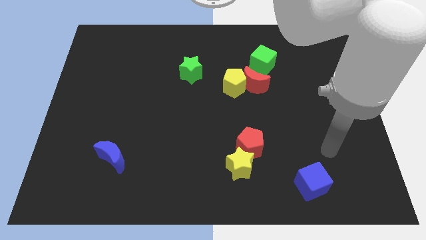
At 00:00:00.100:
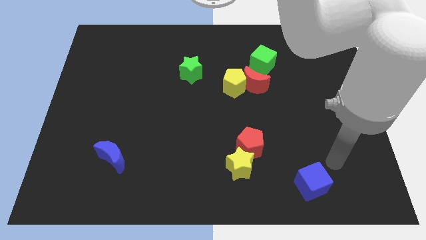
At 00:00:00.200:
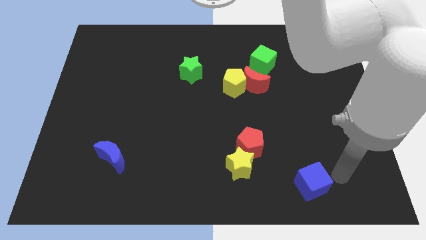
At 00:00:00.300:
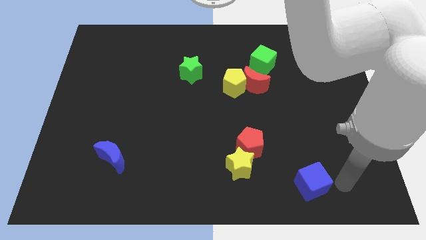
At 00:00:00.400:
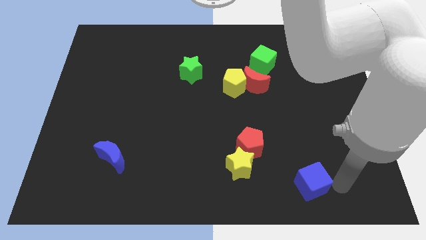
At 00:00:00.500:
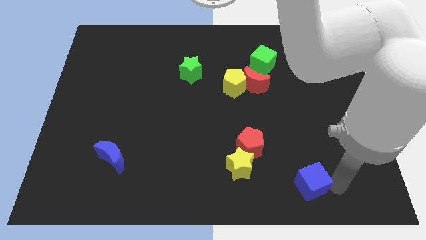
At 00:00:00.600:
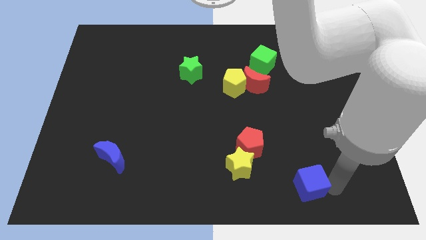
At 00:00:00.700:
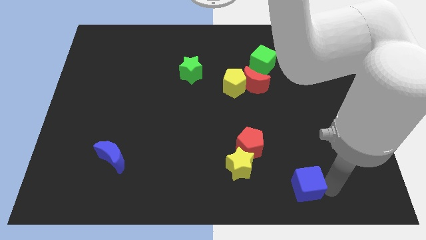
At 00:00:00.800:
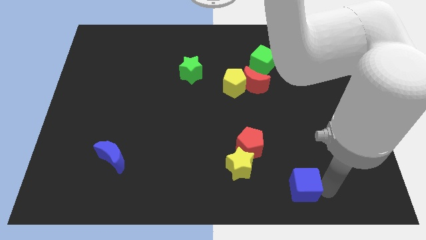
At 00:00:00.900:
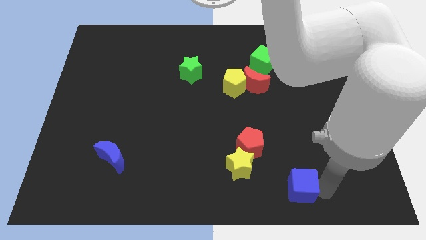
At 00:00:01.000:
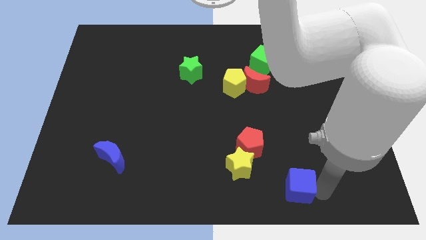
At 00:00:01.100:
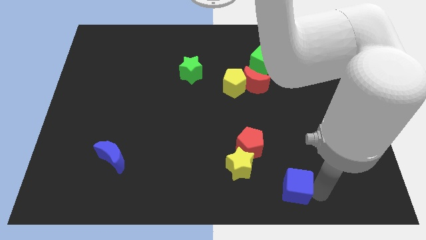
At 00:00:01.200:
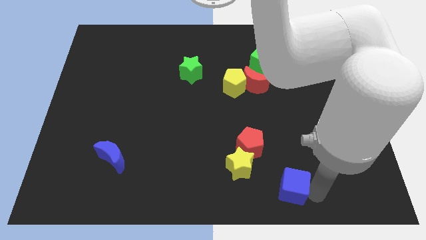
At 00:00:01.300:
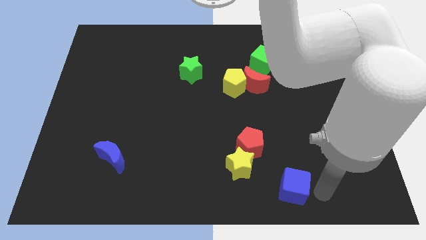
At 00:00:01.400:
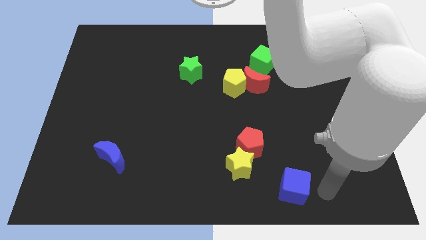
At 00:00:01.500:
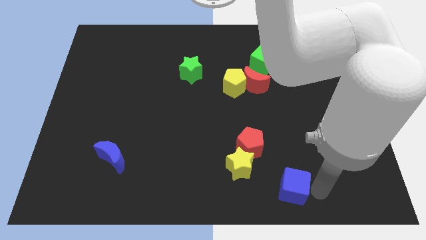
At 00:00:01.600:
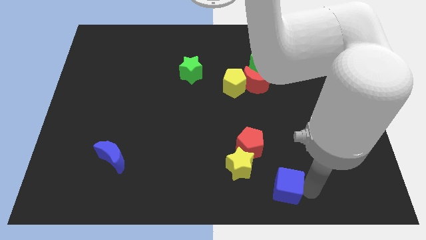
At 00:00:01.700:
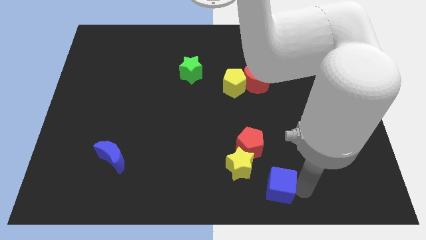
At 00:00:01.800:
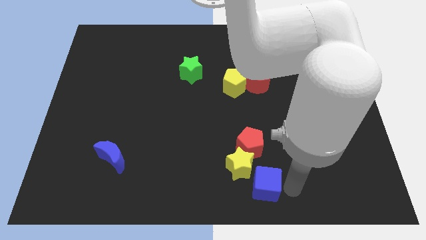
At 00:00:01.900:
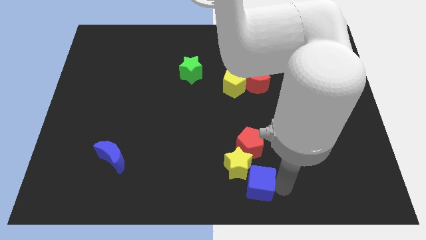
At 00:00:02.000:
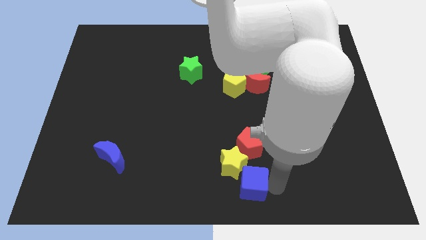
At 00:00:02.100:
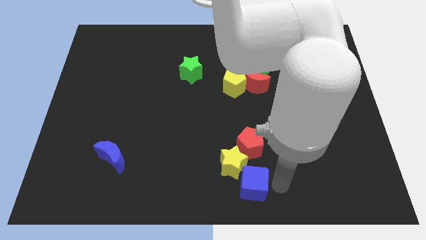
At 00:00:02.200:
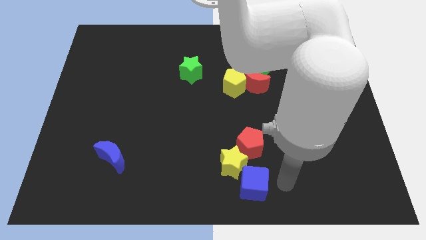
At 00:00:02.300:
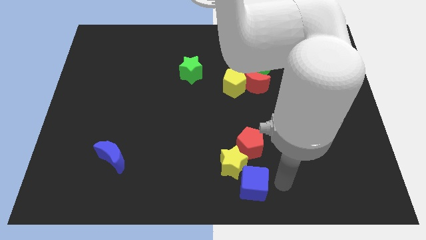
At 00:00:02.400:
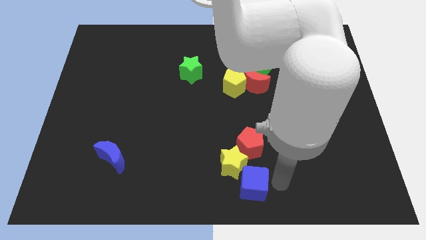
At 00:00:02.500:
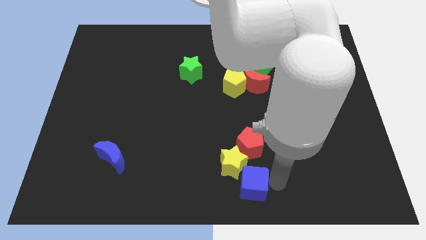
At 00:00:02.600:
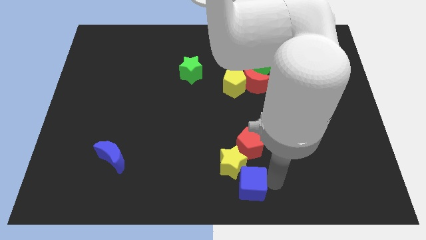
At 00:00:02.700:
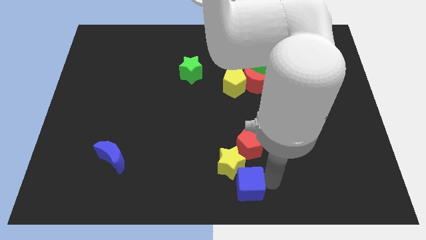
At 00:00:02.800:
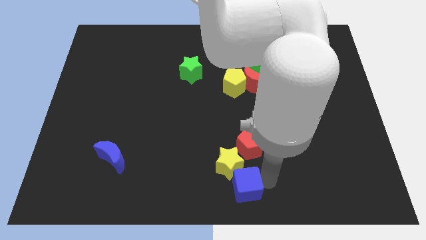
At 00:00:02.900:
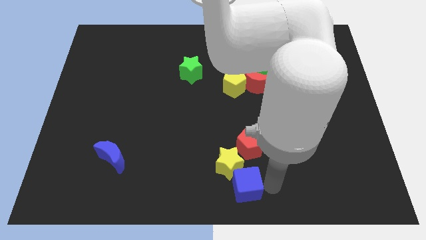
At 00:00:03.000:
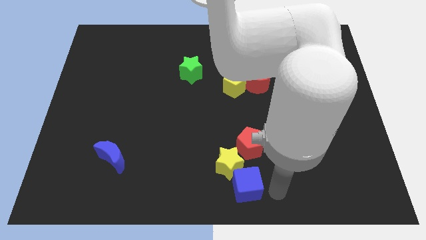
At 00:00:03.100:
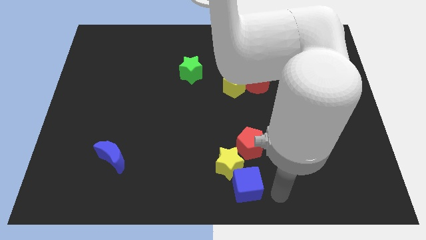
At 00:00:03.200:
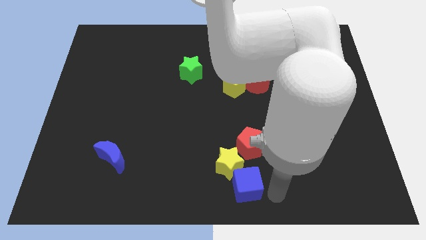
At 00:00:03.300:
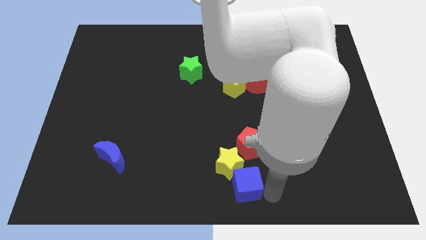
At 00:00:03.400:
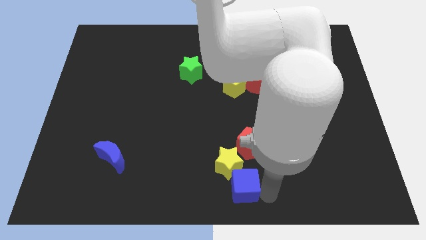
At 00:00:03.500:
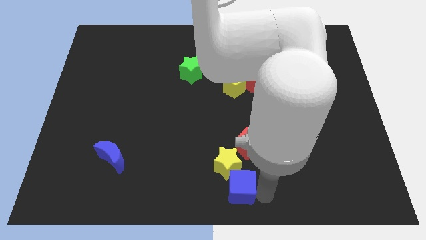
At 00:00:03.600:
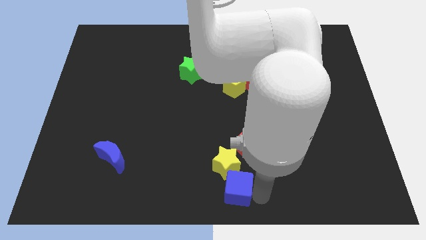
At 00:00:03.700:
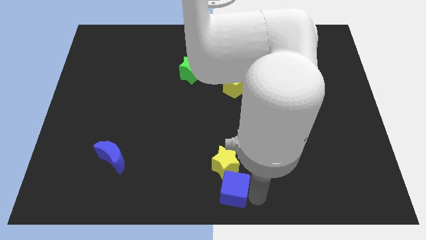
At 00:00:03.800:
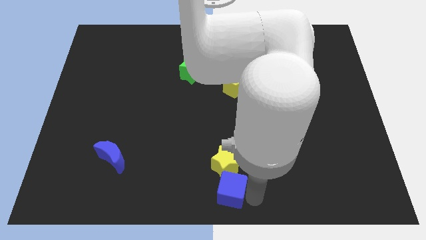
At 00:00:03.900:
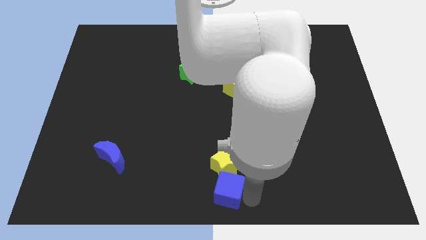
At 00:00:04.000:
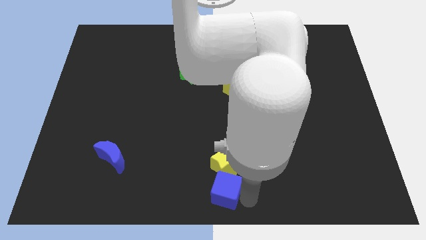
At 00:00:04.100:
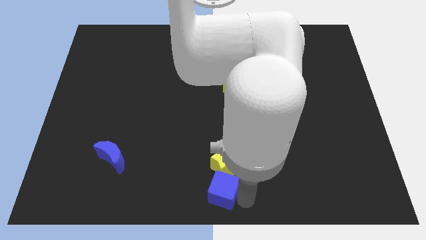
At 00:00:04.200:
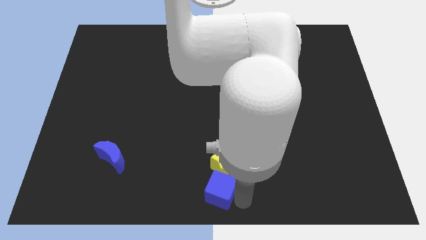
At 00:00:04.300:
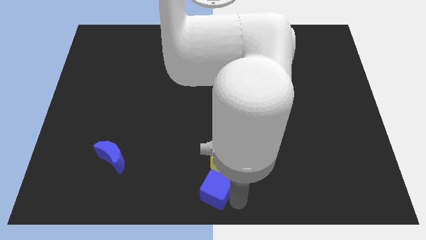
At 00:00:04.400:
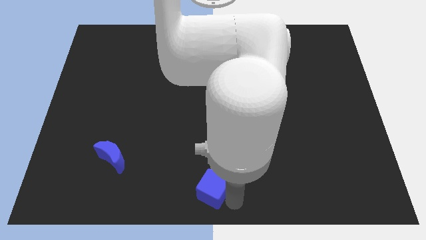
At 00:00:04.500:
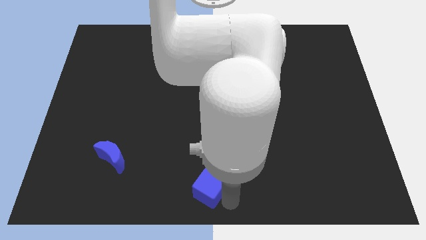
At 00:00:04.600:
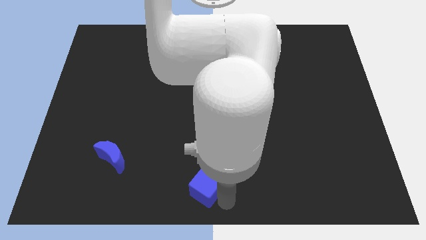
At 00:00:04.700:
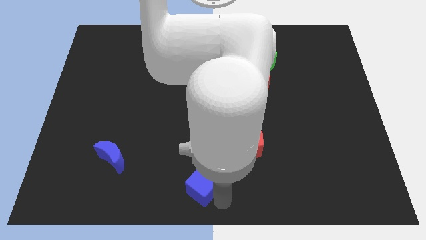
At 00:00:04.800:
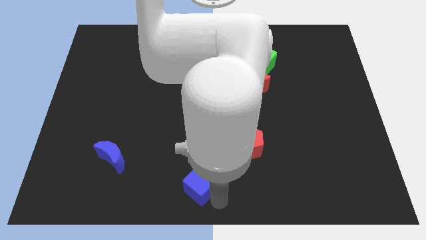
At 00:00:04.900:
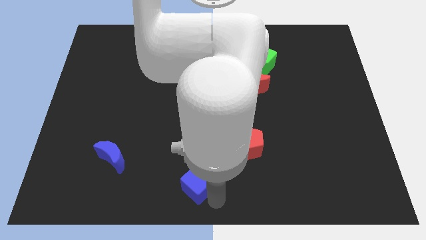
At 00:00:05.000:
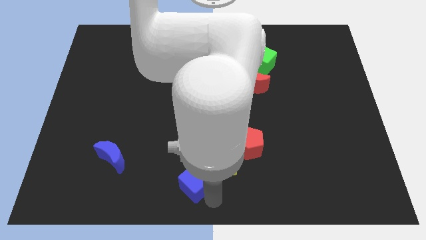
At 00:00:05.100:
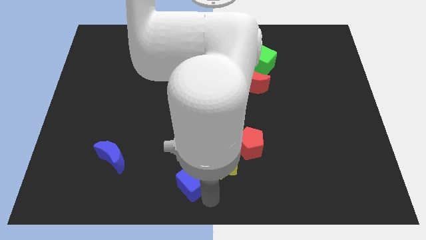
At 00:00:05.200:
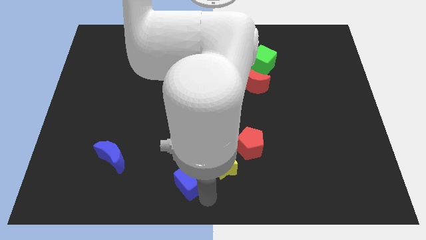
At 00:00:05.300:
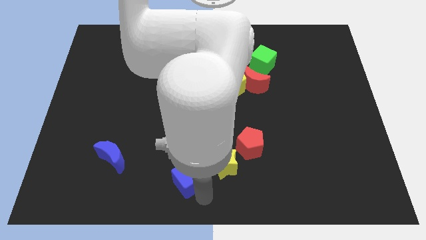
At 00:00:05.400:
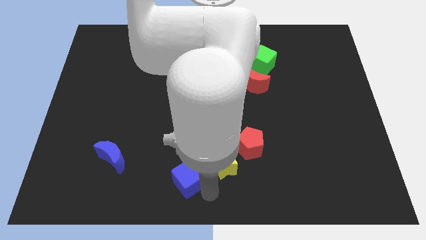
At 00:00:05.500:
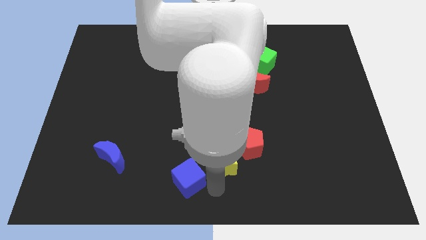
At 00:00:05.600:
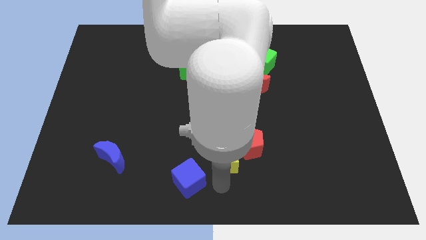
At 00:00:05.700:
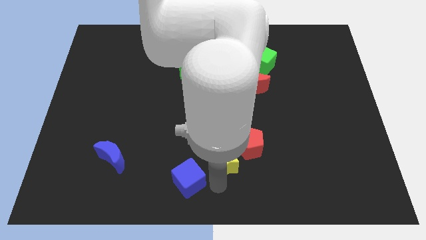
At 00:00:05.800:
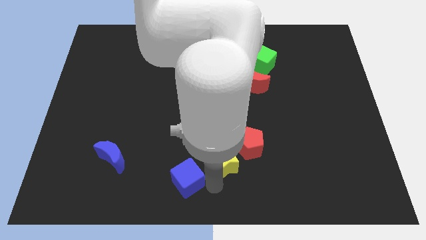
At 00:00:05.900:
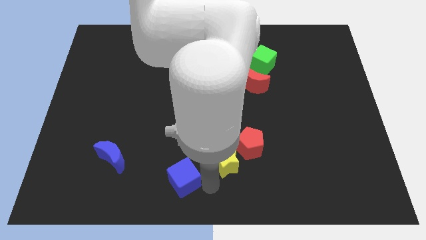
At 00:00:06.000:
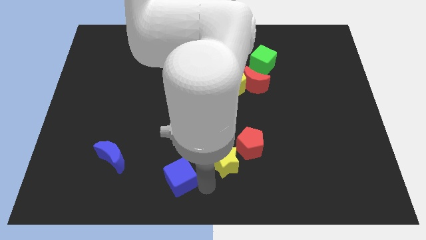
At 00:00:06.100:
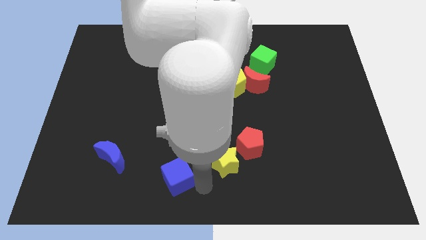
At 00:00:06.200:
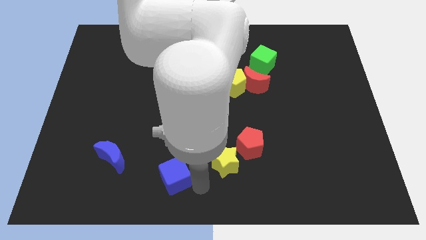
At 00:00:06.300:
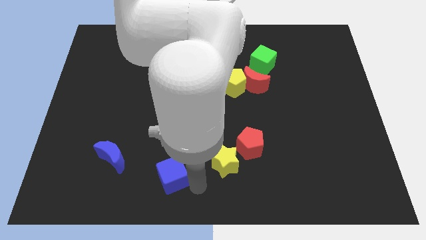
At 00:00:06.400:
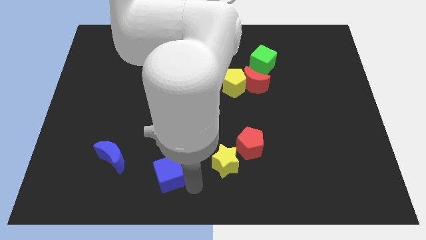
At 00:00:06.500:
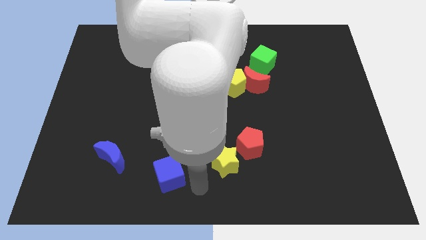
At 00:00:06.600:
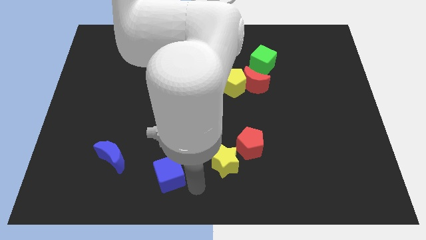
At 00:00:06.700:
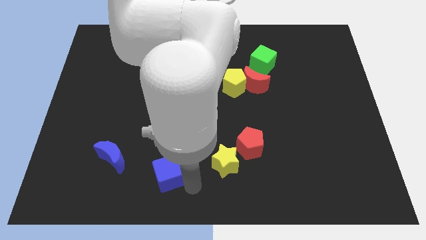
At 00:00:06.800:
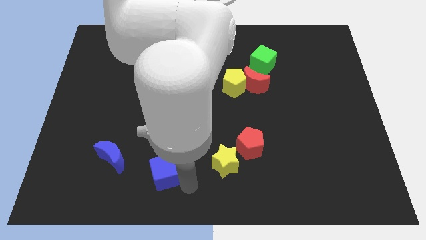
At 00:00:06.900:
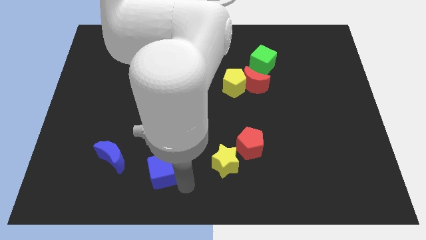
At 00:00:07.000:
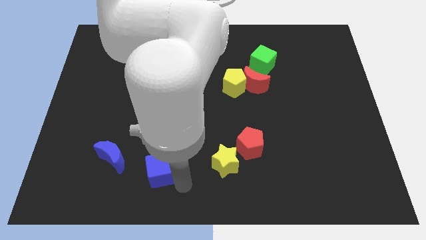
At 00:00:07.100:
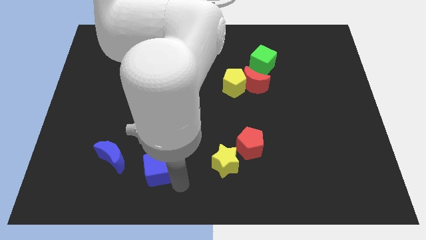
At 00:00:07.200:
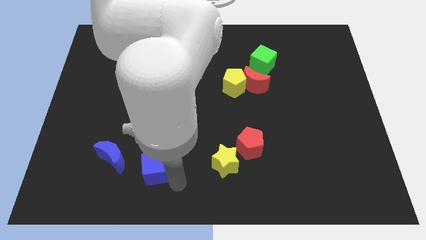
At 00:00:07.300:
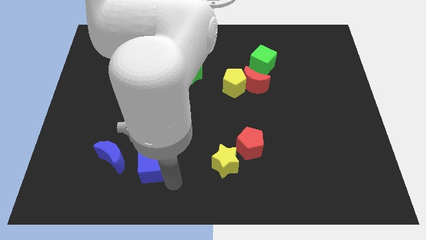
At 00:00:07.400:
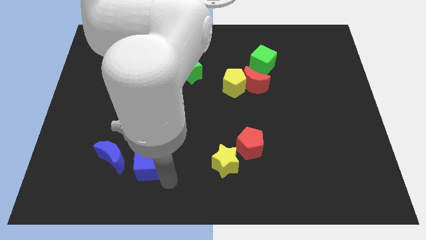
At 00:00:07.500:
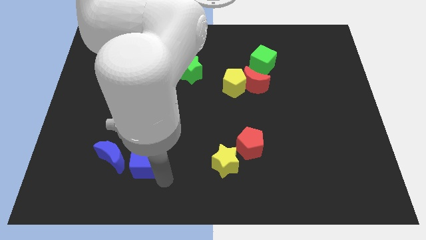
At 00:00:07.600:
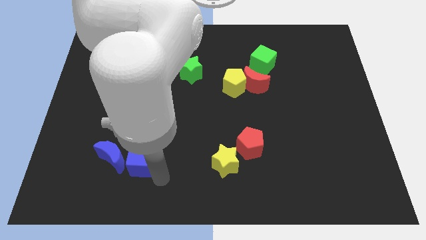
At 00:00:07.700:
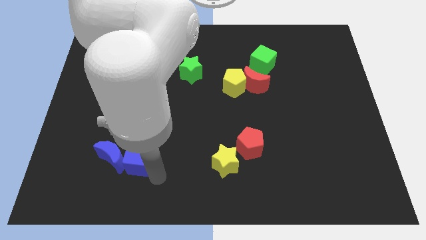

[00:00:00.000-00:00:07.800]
put the blue cube close to the blue moon
